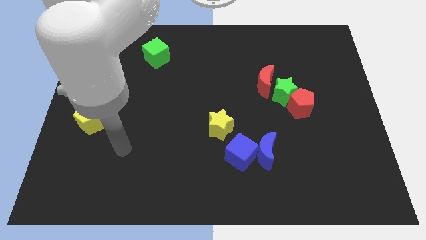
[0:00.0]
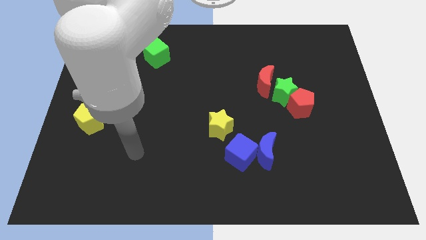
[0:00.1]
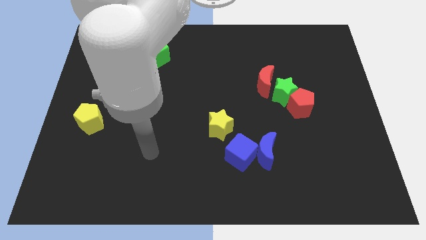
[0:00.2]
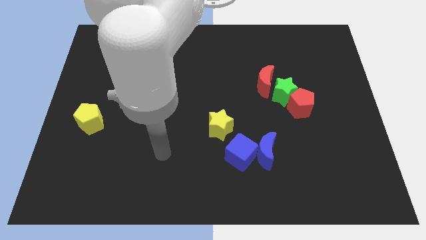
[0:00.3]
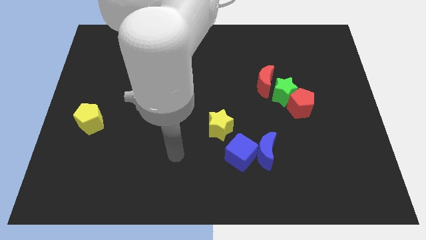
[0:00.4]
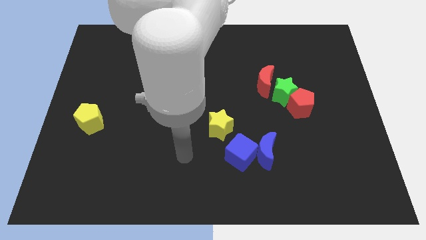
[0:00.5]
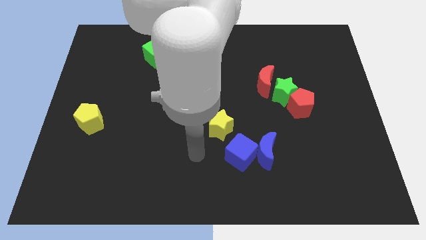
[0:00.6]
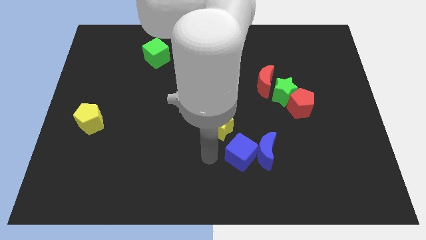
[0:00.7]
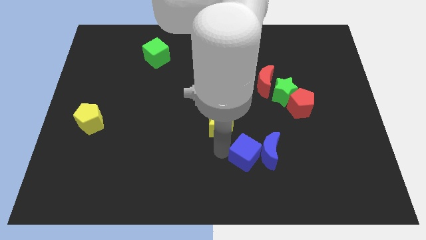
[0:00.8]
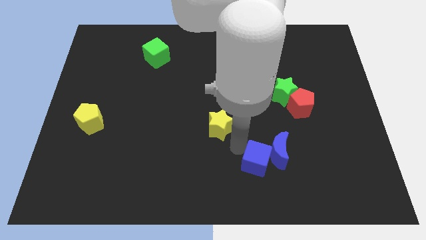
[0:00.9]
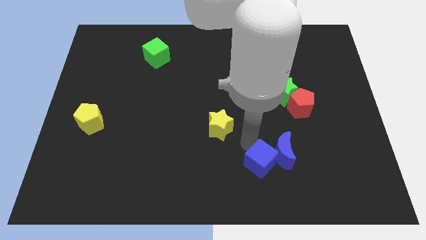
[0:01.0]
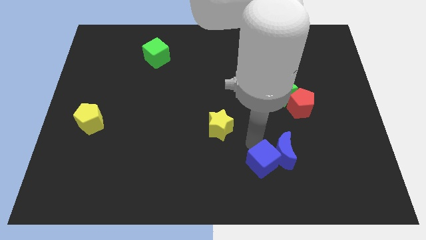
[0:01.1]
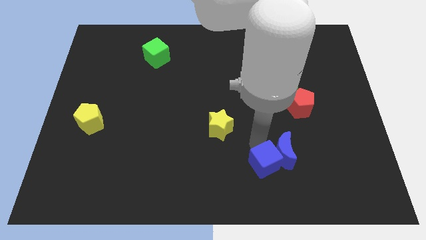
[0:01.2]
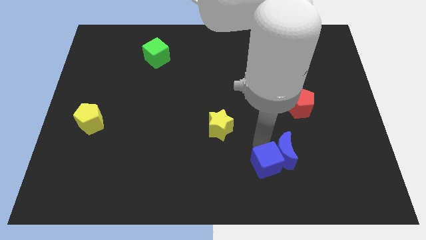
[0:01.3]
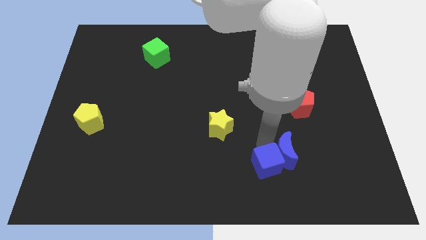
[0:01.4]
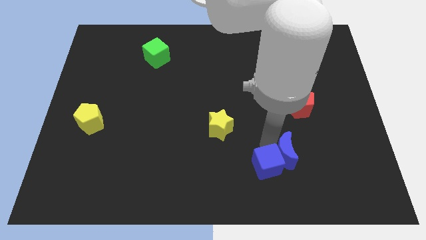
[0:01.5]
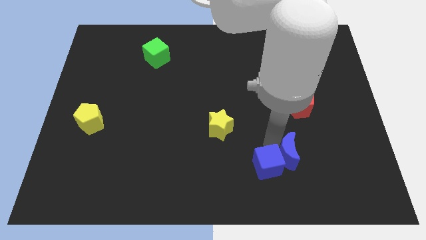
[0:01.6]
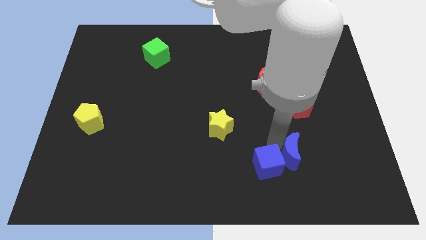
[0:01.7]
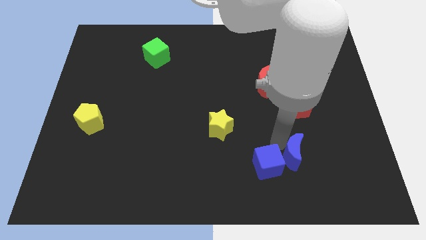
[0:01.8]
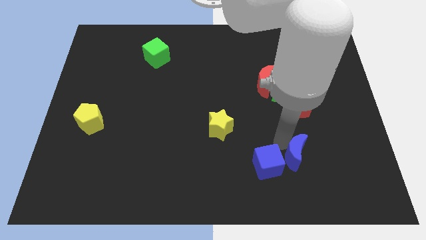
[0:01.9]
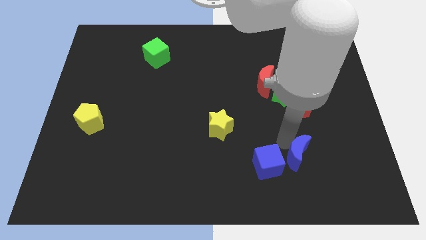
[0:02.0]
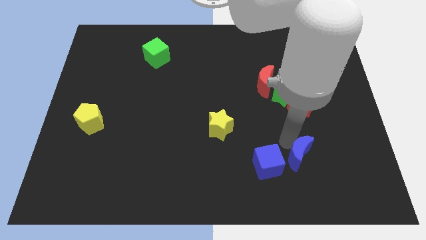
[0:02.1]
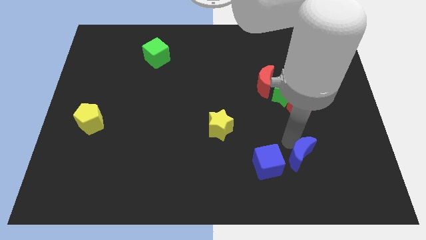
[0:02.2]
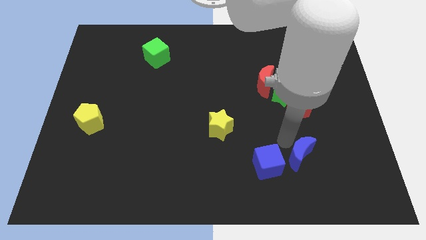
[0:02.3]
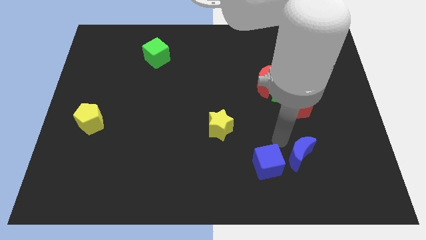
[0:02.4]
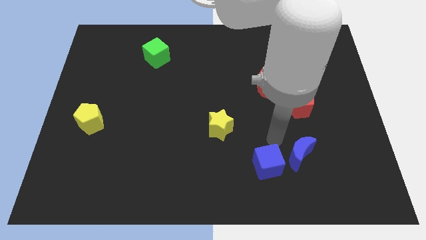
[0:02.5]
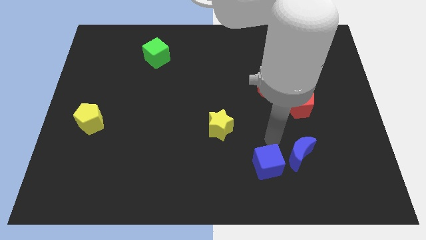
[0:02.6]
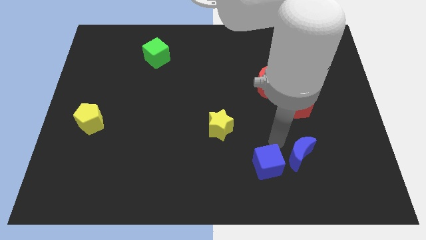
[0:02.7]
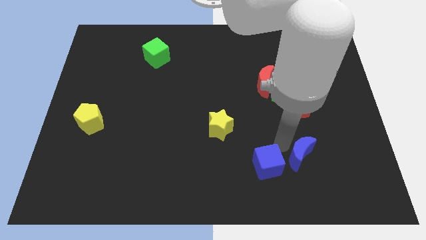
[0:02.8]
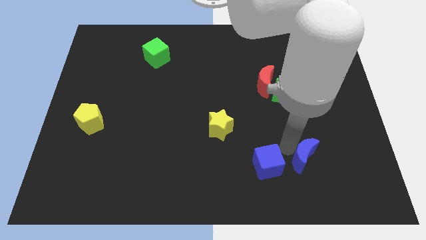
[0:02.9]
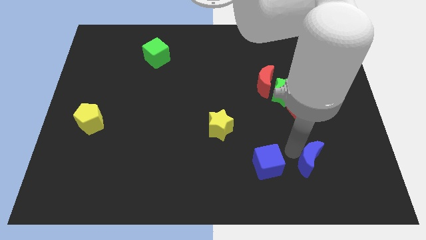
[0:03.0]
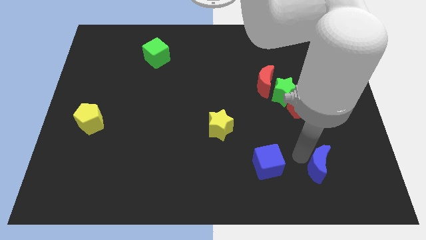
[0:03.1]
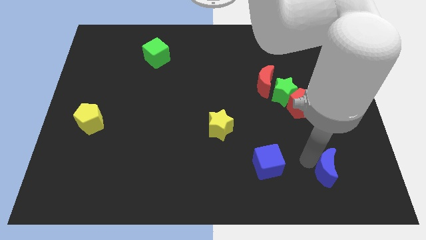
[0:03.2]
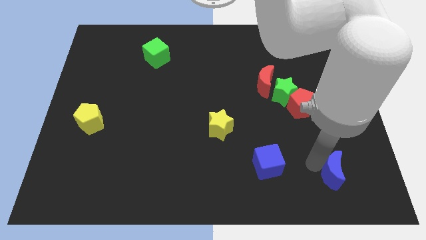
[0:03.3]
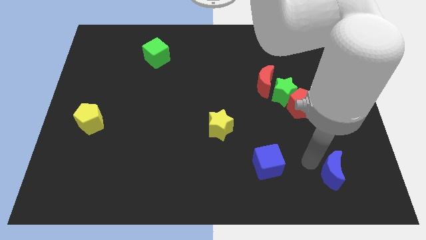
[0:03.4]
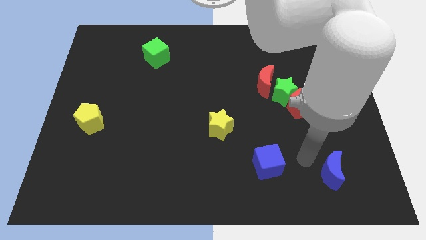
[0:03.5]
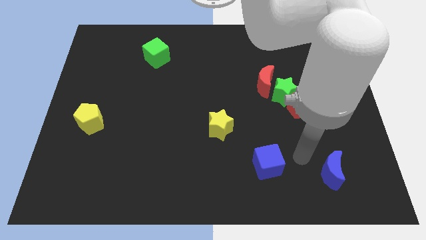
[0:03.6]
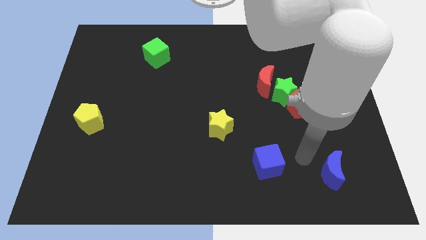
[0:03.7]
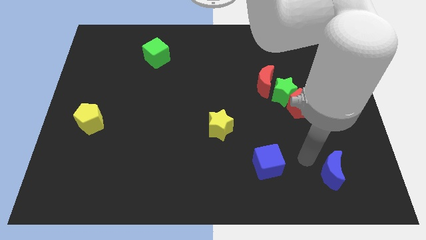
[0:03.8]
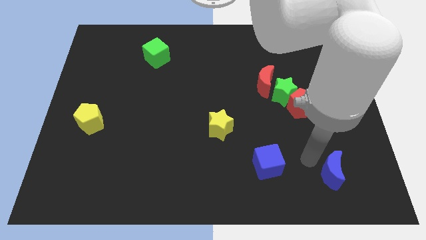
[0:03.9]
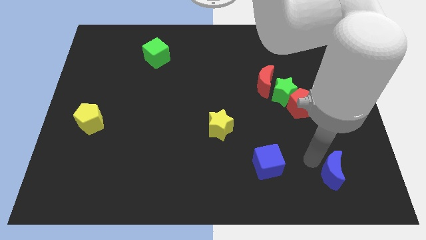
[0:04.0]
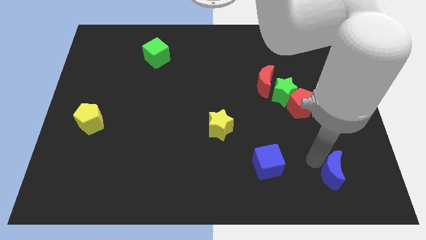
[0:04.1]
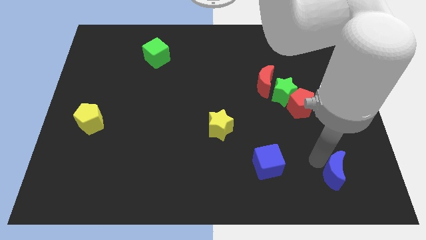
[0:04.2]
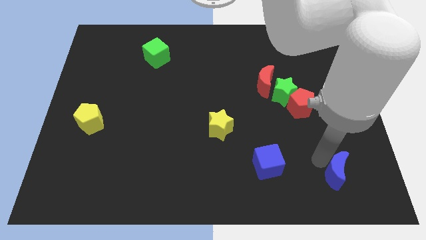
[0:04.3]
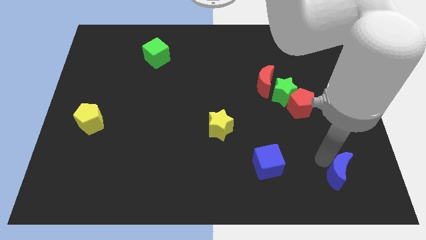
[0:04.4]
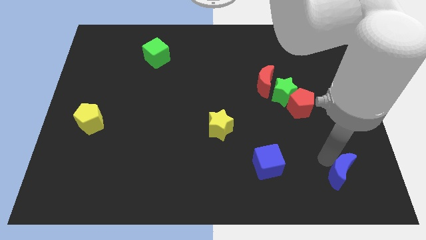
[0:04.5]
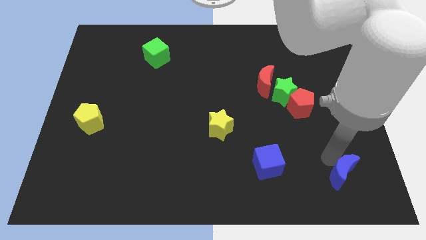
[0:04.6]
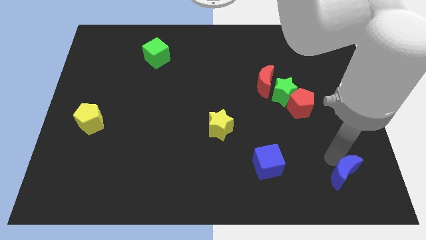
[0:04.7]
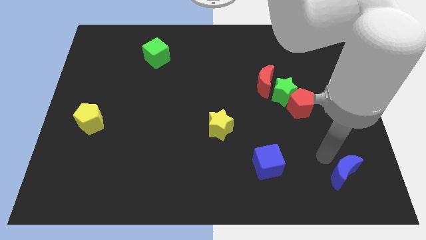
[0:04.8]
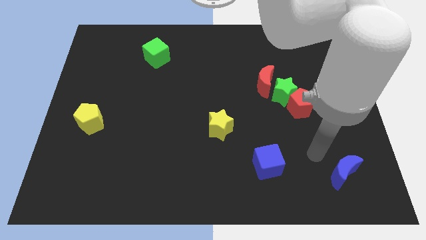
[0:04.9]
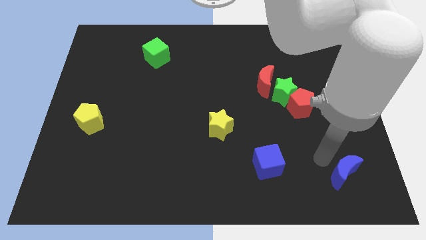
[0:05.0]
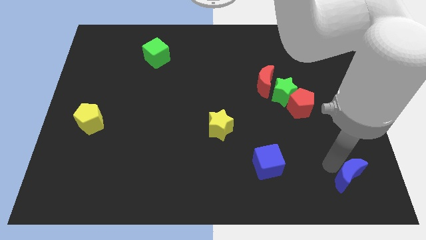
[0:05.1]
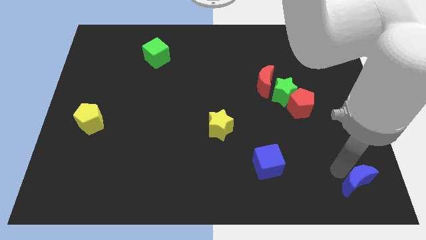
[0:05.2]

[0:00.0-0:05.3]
put the blue moon to the bottom right corner

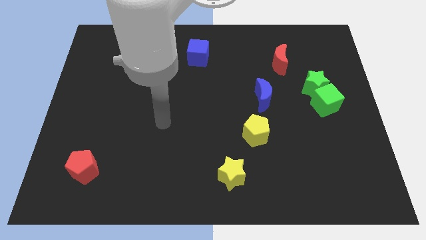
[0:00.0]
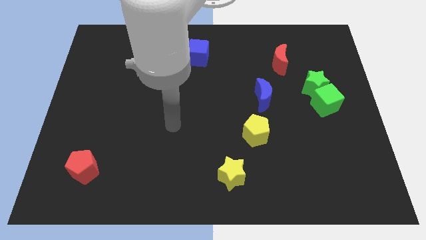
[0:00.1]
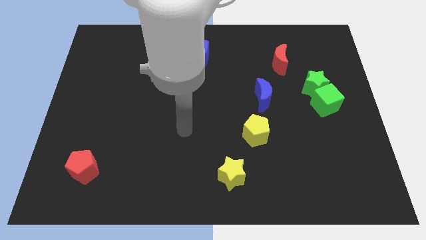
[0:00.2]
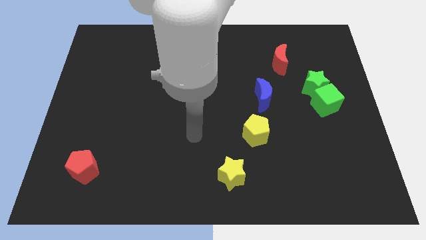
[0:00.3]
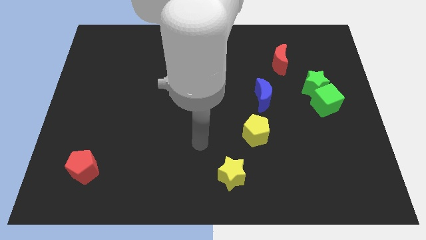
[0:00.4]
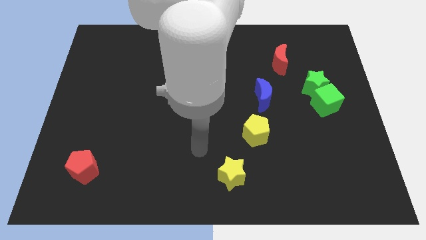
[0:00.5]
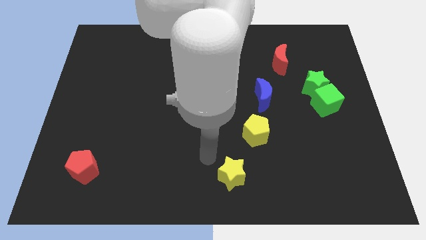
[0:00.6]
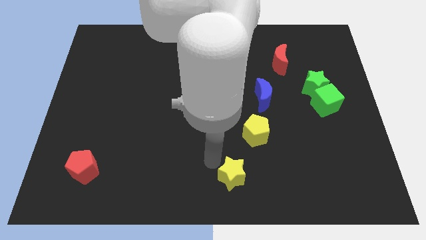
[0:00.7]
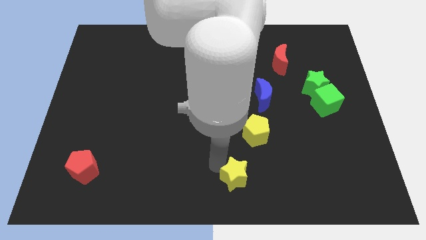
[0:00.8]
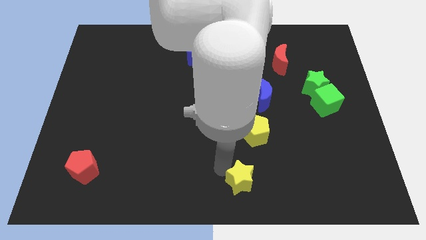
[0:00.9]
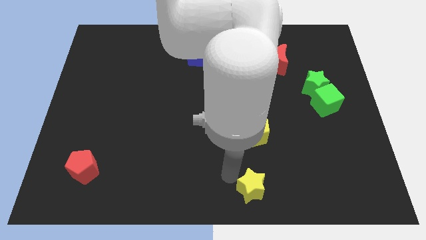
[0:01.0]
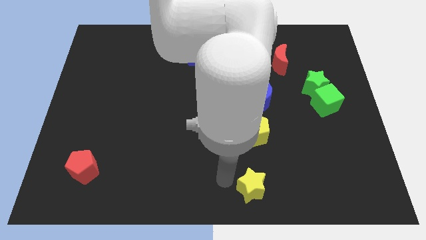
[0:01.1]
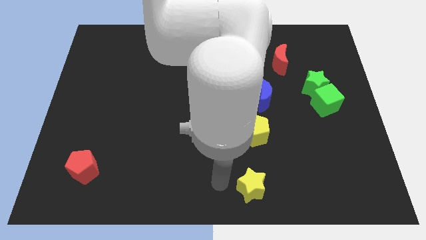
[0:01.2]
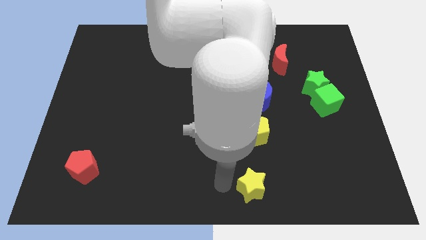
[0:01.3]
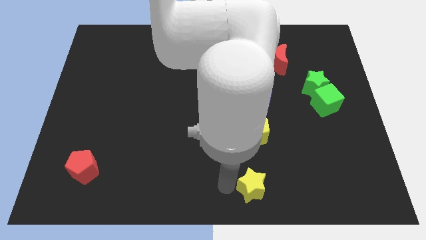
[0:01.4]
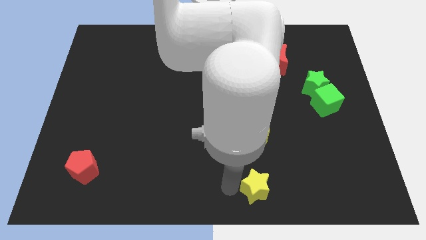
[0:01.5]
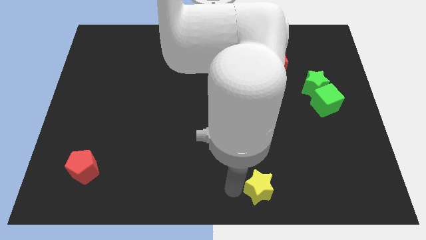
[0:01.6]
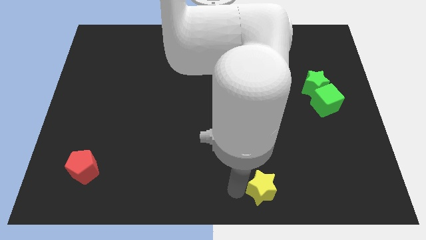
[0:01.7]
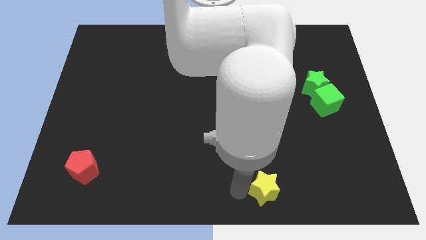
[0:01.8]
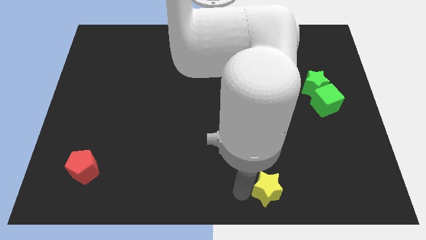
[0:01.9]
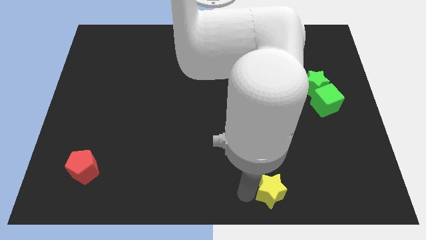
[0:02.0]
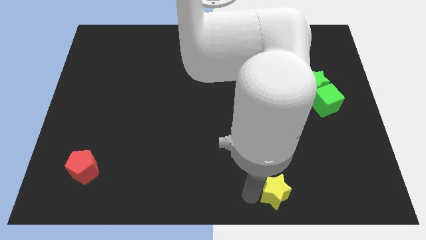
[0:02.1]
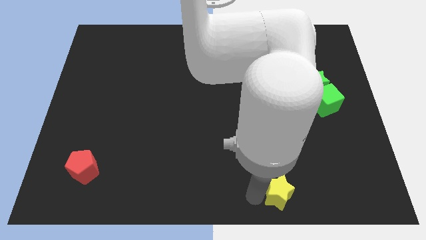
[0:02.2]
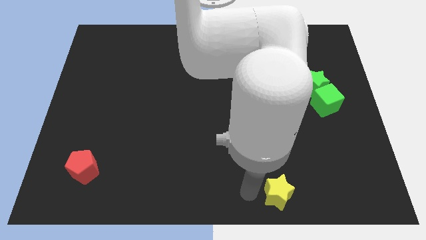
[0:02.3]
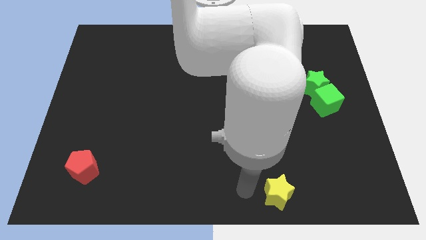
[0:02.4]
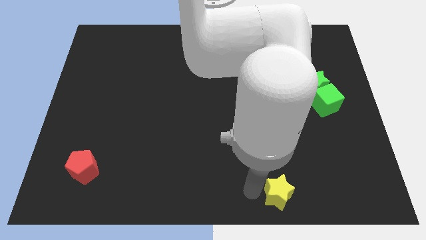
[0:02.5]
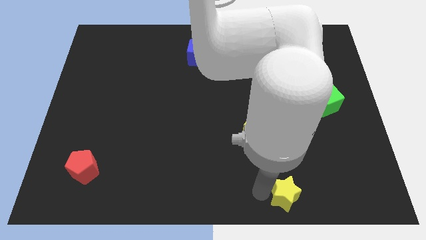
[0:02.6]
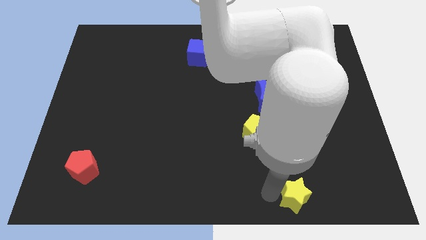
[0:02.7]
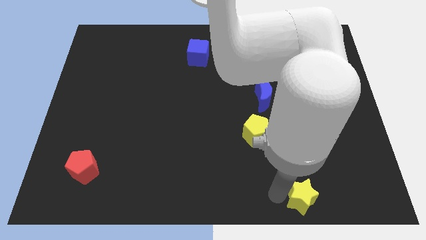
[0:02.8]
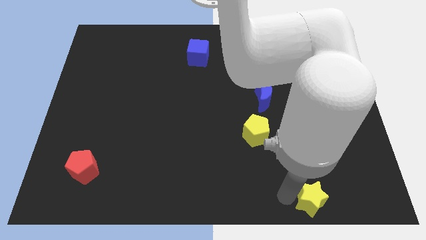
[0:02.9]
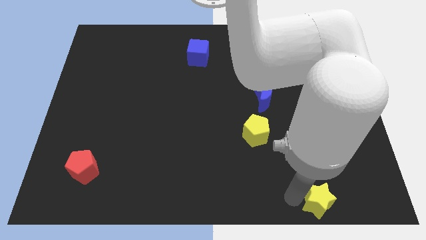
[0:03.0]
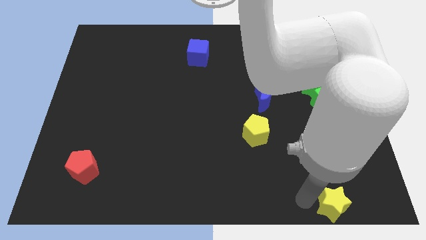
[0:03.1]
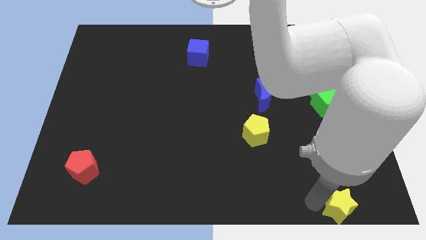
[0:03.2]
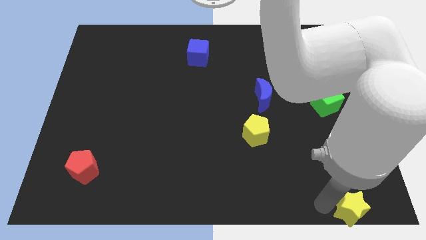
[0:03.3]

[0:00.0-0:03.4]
slide the yellow star to the lower right corner
